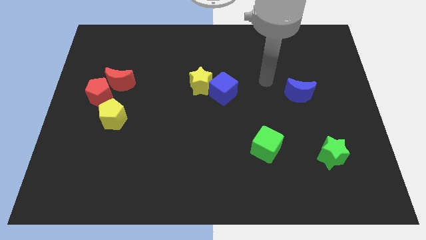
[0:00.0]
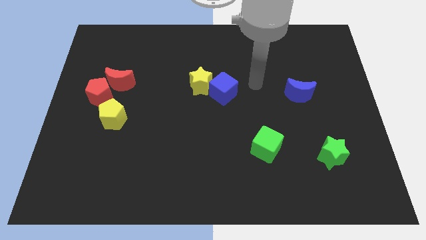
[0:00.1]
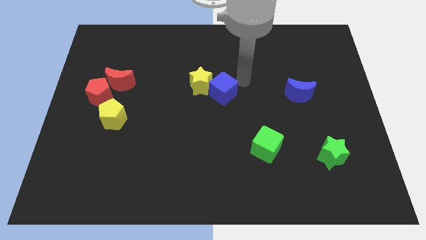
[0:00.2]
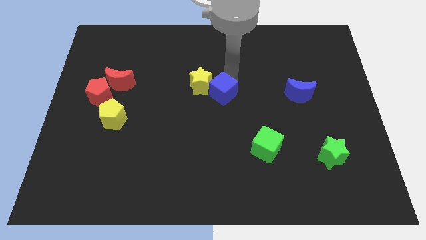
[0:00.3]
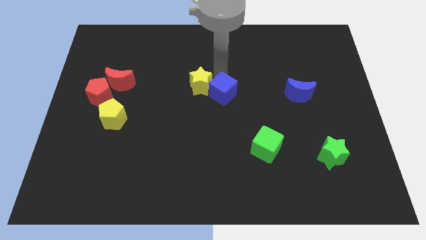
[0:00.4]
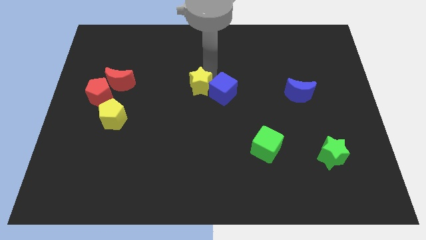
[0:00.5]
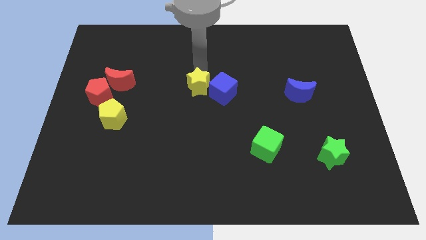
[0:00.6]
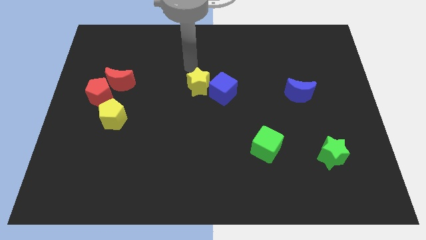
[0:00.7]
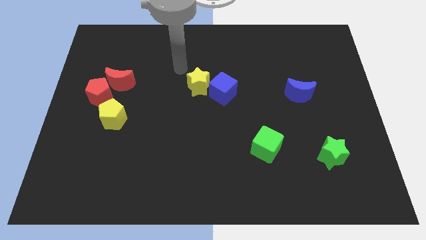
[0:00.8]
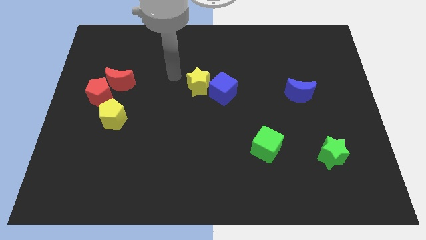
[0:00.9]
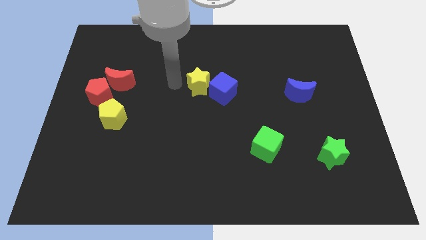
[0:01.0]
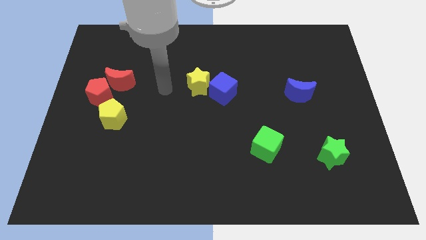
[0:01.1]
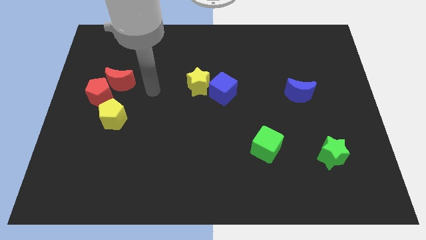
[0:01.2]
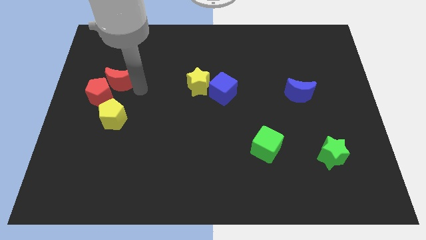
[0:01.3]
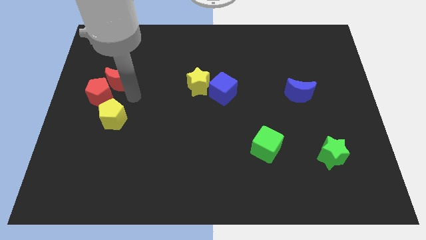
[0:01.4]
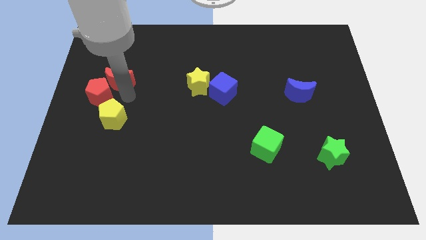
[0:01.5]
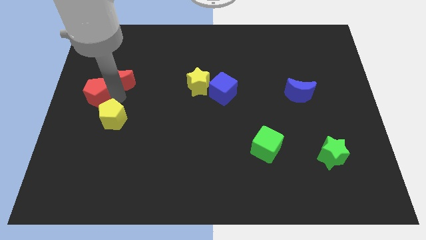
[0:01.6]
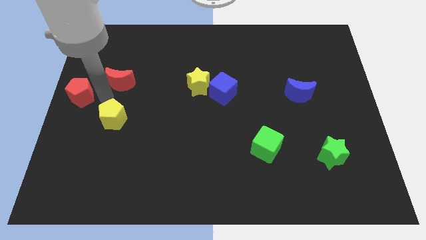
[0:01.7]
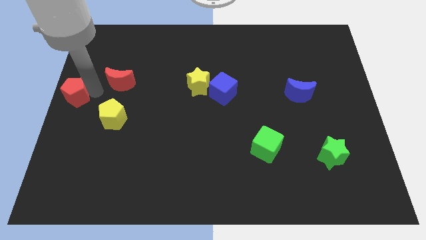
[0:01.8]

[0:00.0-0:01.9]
move the red moon away from the red pentagon

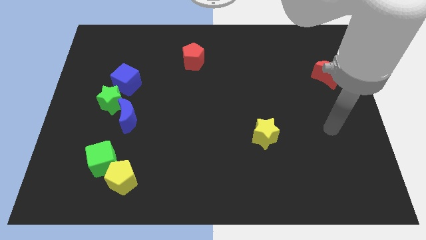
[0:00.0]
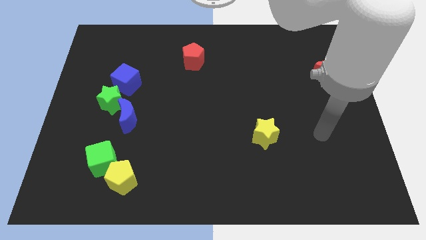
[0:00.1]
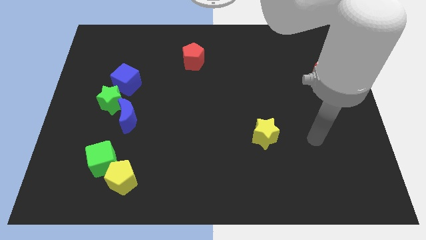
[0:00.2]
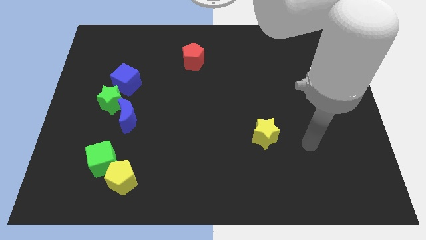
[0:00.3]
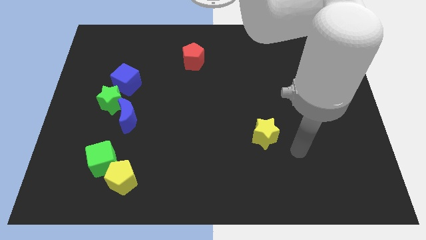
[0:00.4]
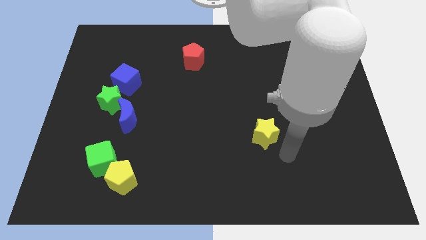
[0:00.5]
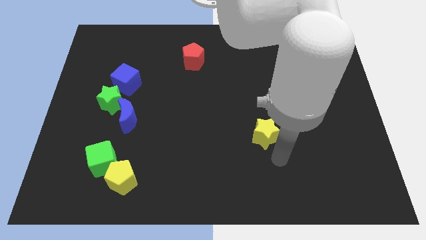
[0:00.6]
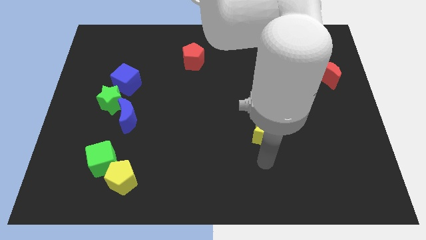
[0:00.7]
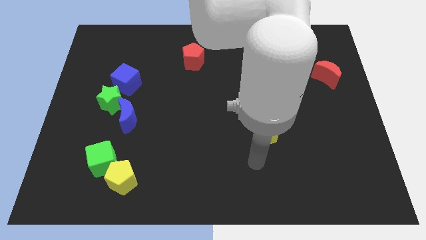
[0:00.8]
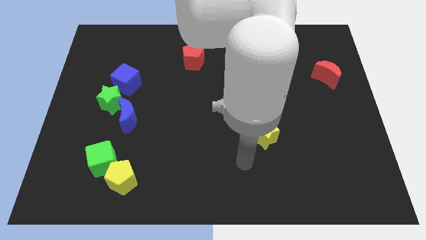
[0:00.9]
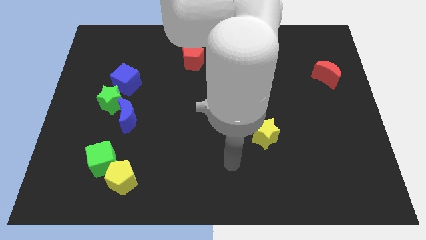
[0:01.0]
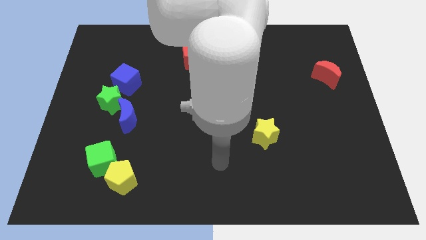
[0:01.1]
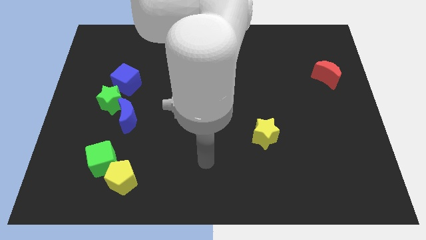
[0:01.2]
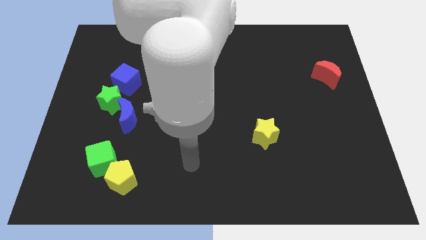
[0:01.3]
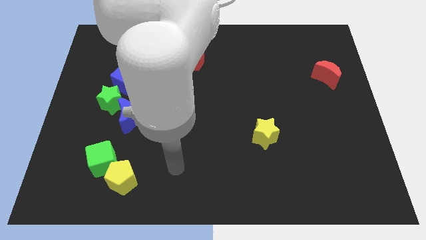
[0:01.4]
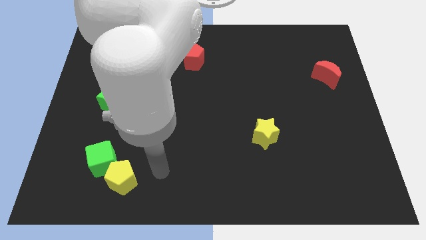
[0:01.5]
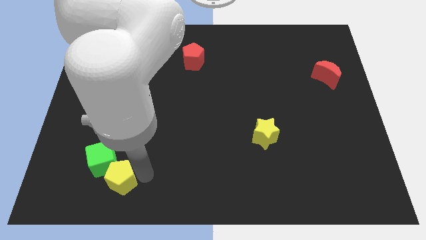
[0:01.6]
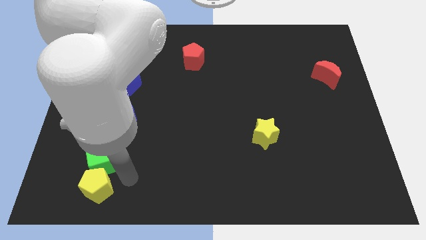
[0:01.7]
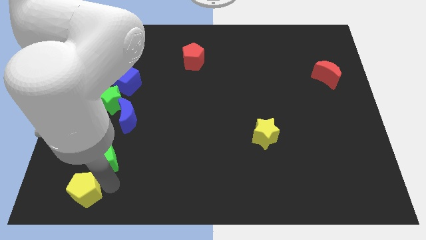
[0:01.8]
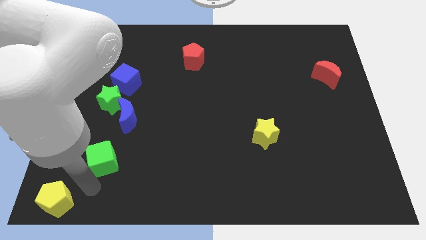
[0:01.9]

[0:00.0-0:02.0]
move the green cube away from the yellow pentagon

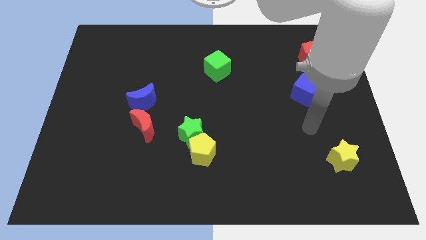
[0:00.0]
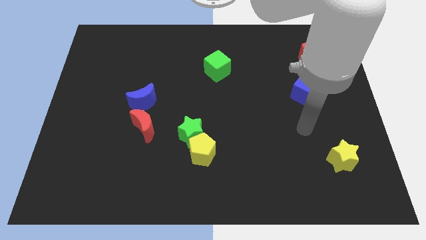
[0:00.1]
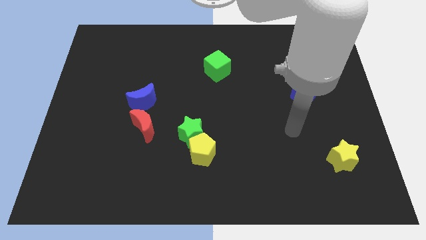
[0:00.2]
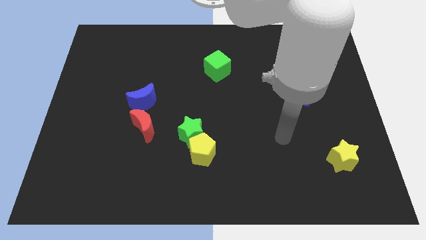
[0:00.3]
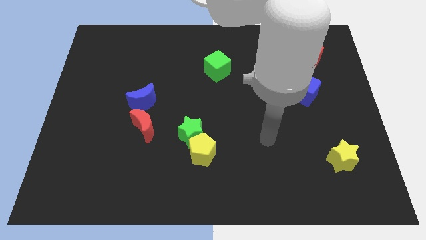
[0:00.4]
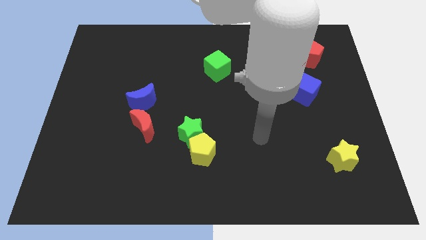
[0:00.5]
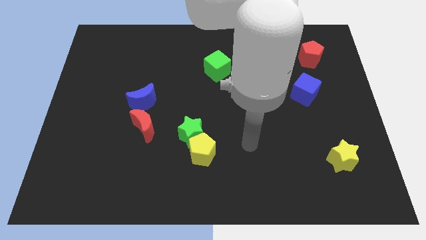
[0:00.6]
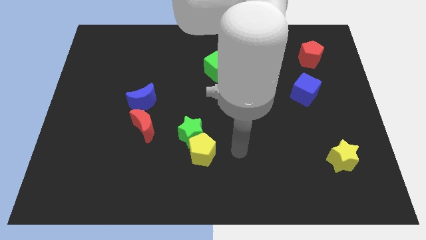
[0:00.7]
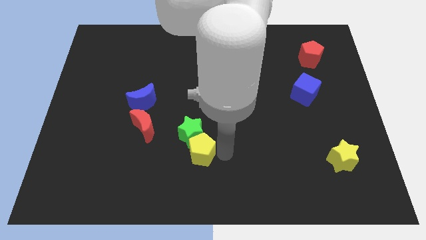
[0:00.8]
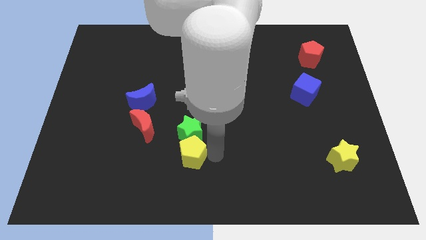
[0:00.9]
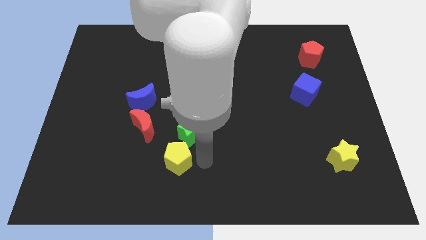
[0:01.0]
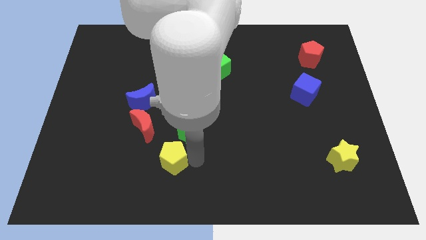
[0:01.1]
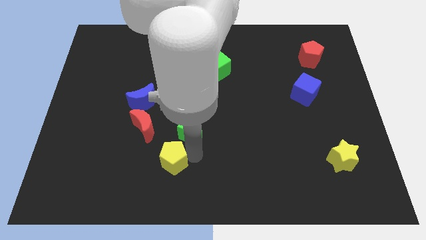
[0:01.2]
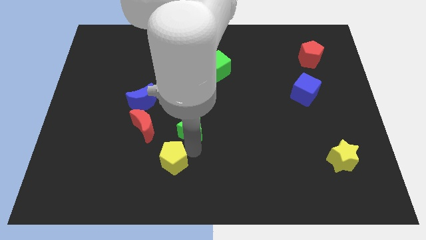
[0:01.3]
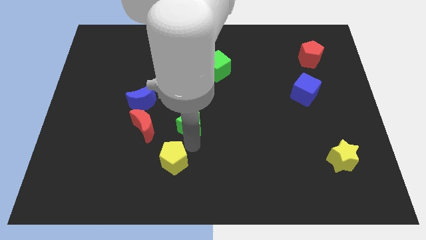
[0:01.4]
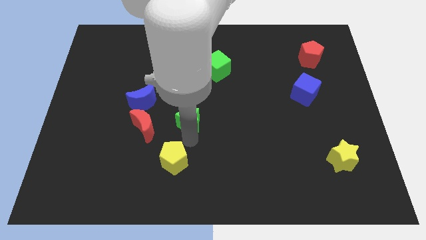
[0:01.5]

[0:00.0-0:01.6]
separate the green star from the yellow pentagon

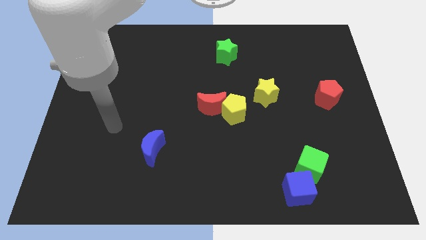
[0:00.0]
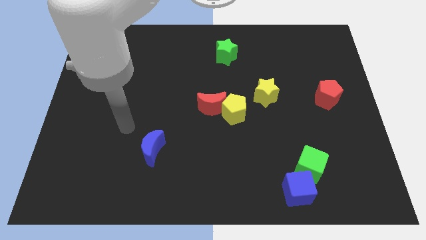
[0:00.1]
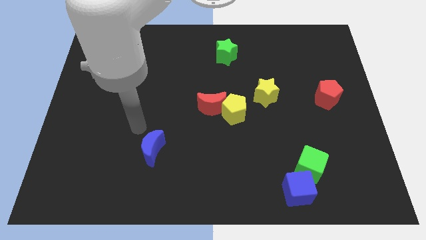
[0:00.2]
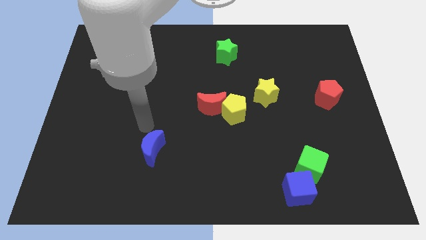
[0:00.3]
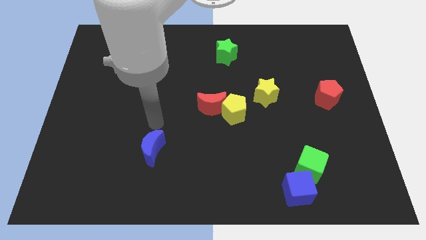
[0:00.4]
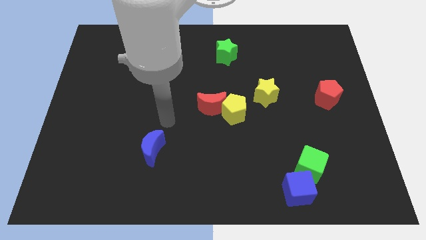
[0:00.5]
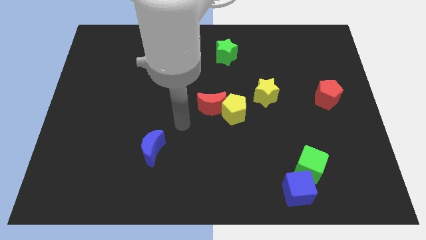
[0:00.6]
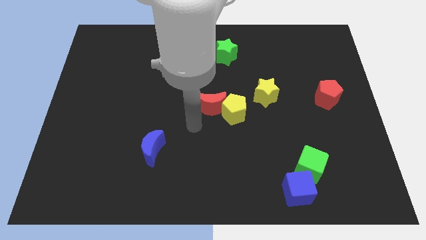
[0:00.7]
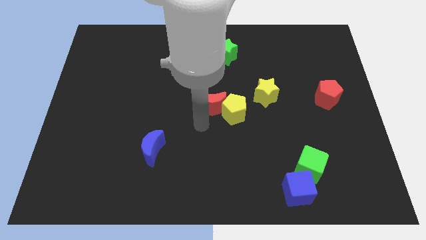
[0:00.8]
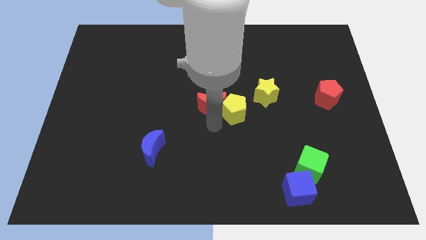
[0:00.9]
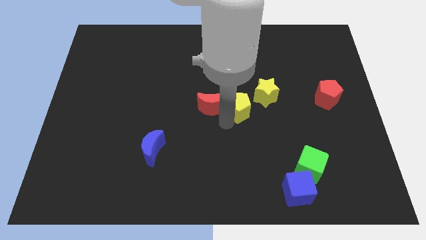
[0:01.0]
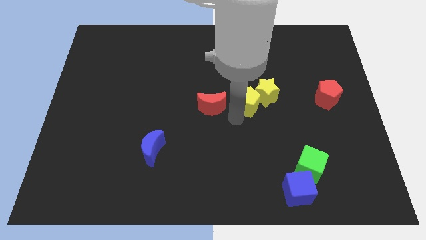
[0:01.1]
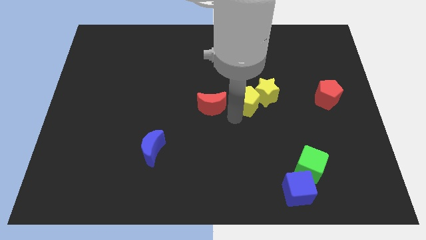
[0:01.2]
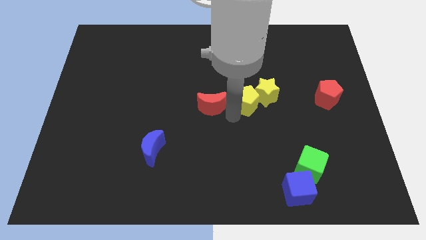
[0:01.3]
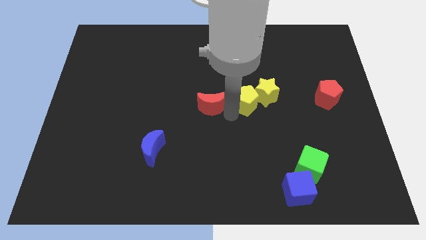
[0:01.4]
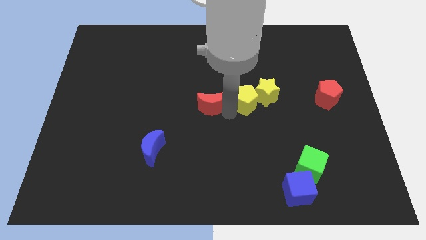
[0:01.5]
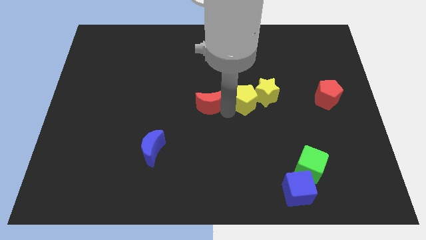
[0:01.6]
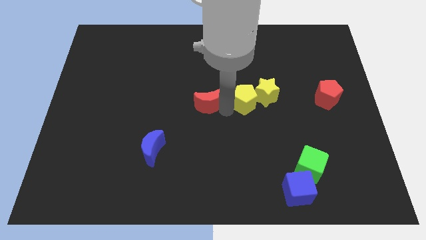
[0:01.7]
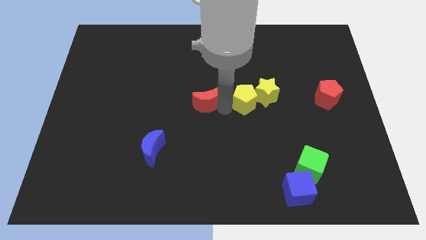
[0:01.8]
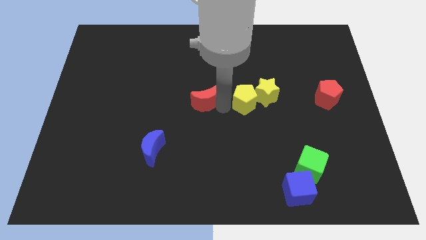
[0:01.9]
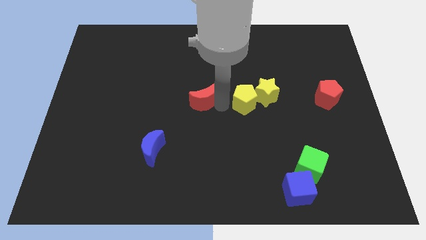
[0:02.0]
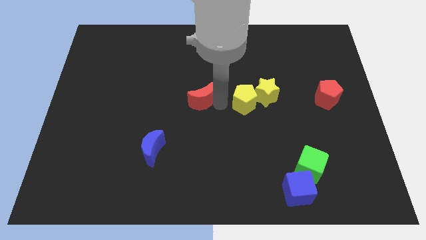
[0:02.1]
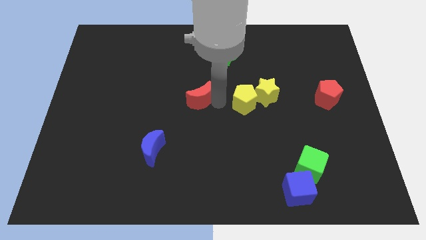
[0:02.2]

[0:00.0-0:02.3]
separate the red moon from the yellow pentagon

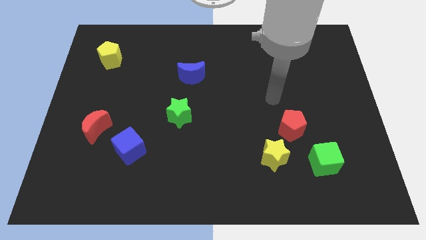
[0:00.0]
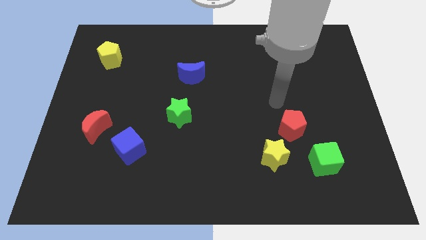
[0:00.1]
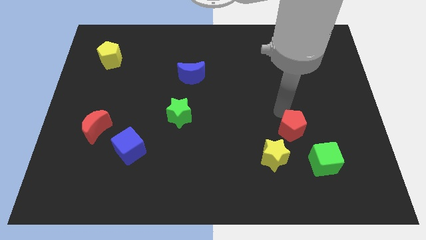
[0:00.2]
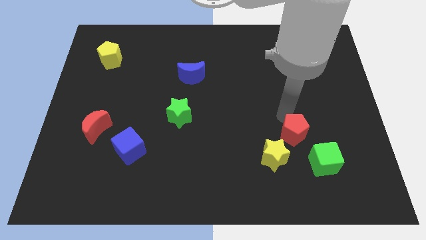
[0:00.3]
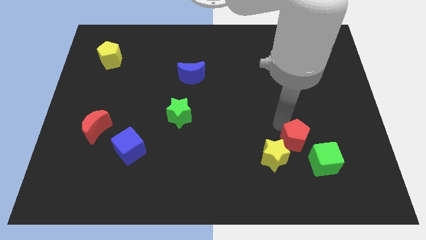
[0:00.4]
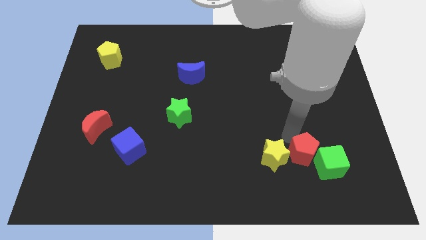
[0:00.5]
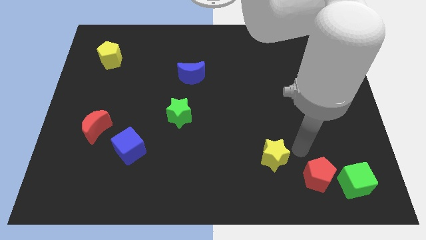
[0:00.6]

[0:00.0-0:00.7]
separate the yellow star from the red pentagon

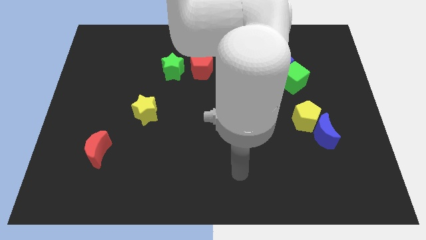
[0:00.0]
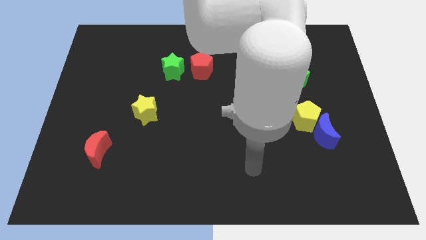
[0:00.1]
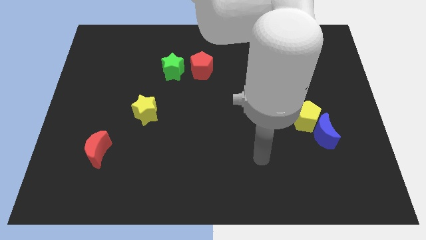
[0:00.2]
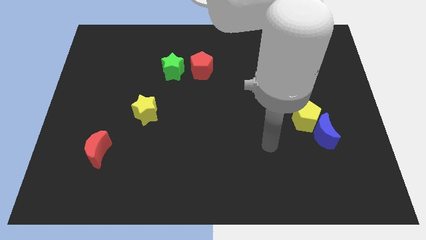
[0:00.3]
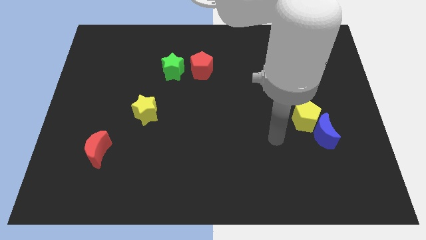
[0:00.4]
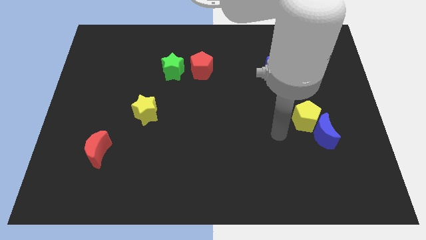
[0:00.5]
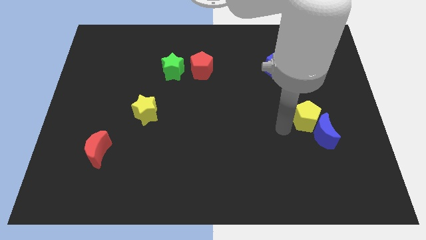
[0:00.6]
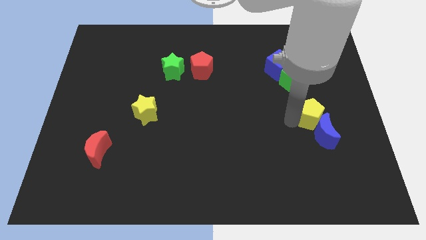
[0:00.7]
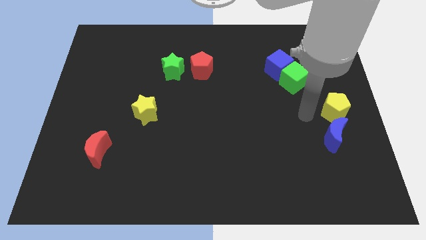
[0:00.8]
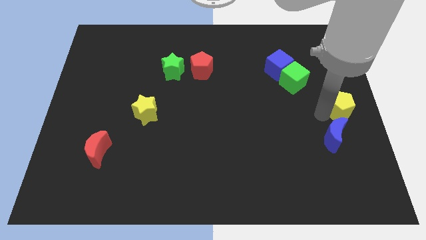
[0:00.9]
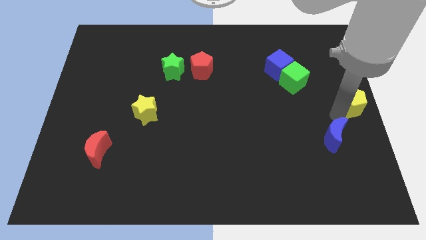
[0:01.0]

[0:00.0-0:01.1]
separate the blue moon from the yellow pentagon
